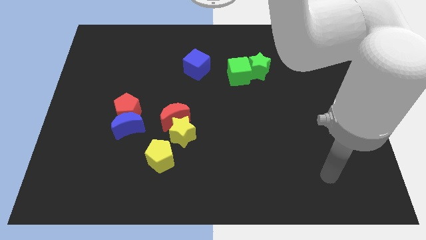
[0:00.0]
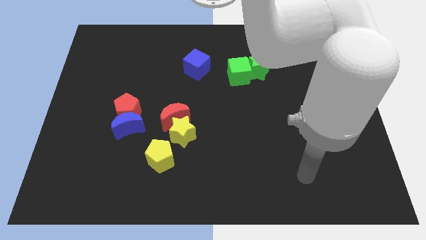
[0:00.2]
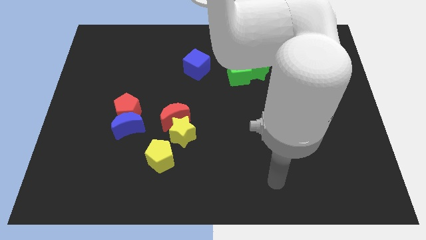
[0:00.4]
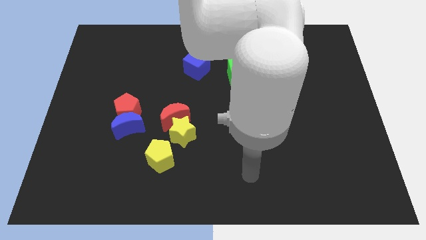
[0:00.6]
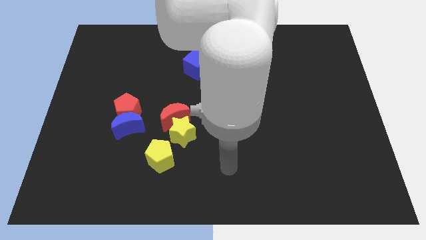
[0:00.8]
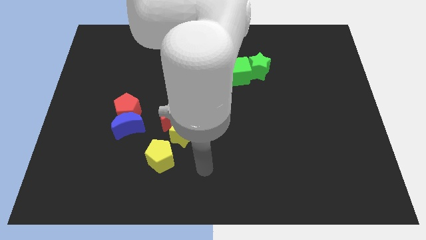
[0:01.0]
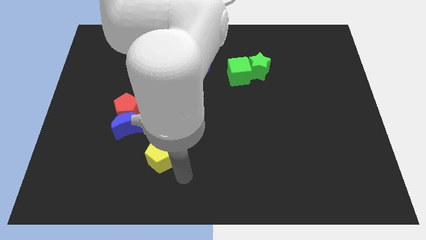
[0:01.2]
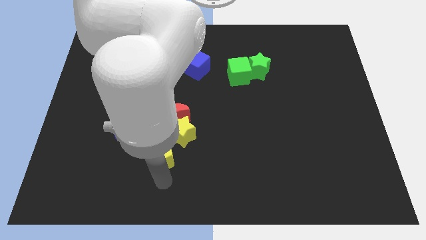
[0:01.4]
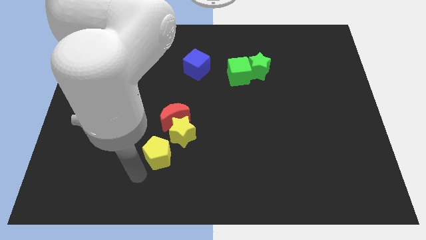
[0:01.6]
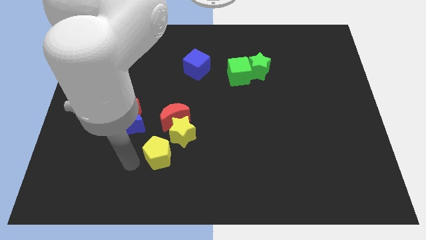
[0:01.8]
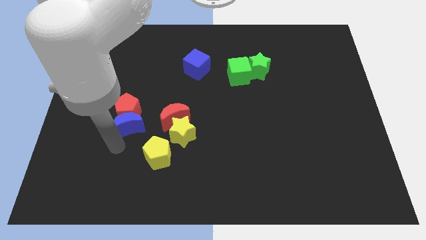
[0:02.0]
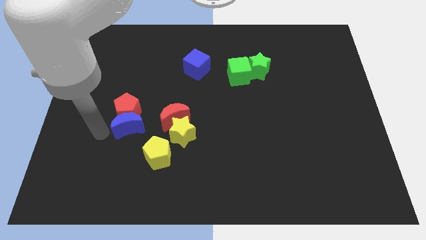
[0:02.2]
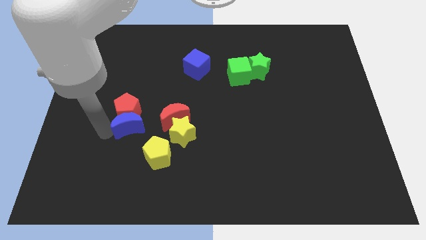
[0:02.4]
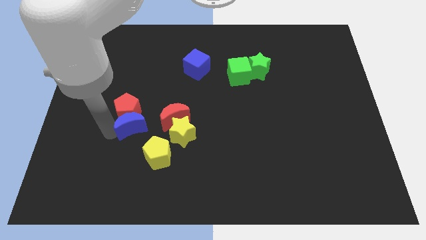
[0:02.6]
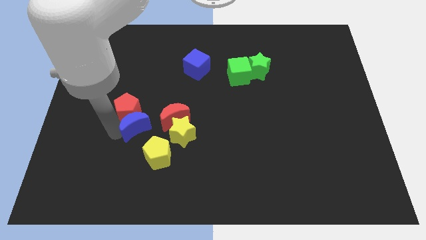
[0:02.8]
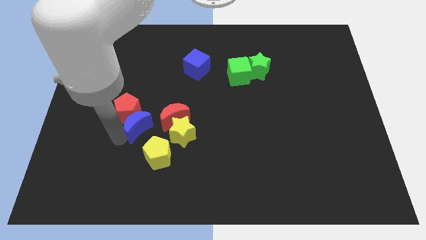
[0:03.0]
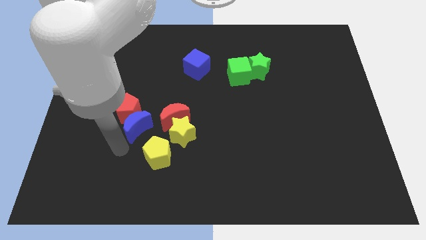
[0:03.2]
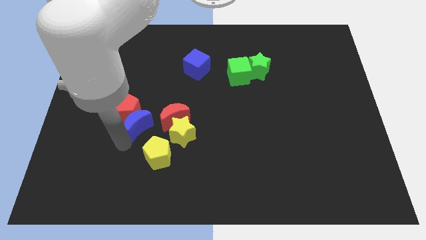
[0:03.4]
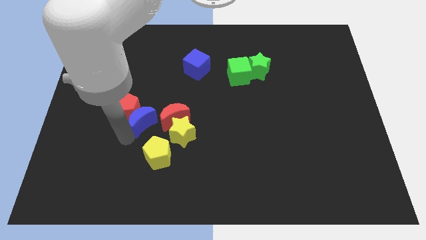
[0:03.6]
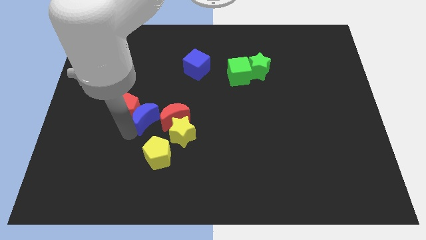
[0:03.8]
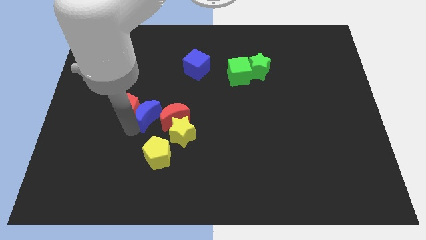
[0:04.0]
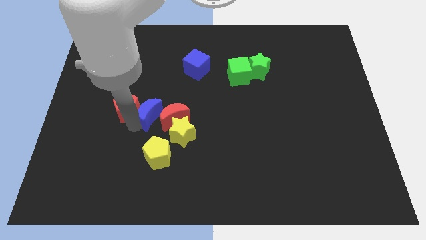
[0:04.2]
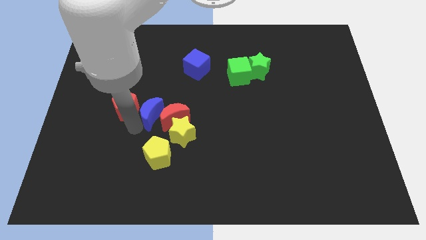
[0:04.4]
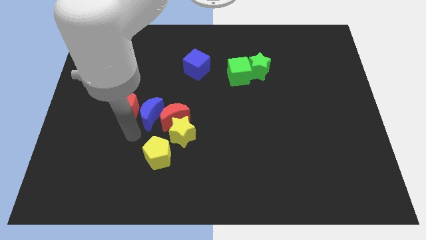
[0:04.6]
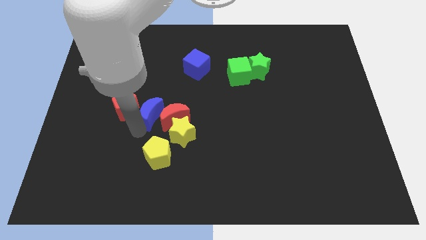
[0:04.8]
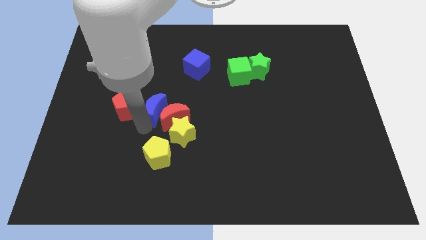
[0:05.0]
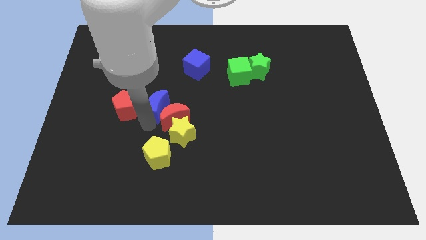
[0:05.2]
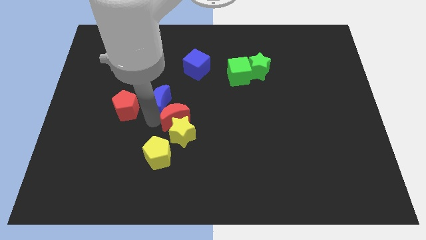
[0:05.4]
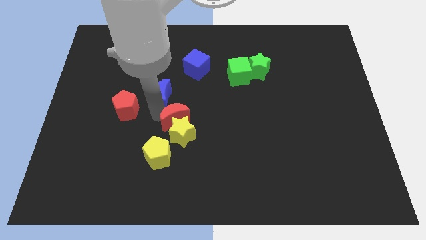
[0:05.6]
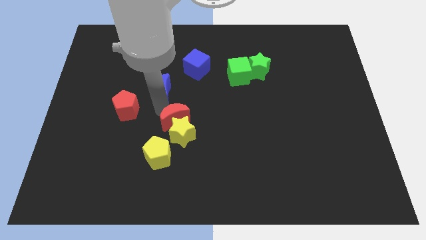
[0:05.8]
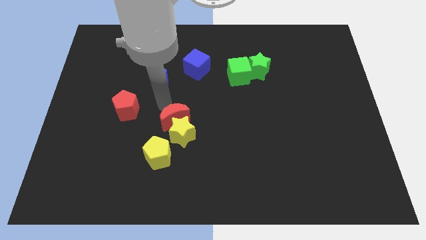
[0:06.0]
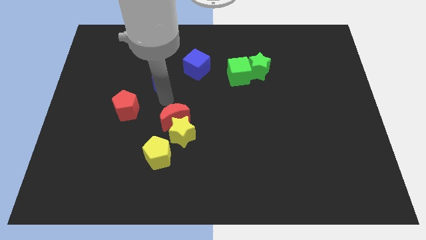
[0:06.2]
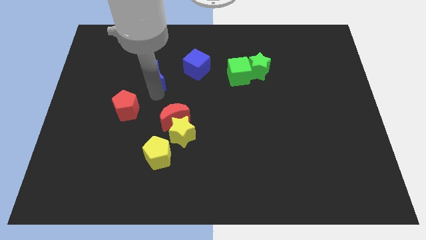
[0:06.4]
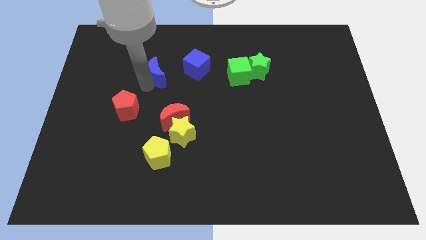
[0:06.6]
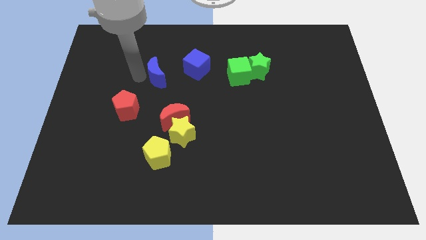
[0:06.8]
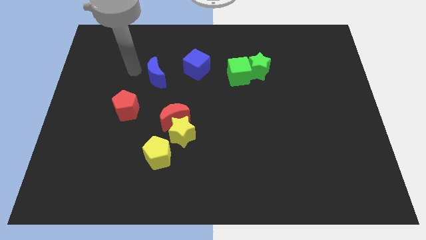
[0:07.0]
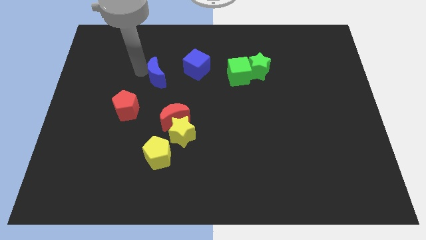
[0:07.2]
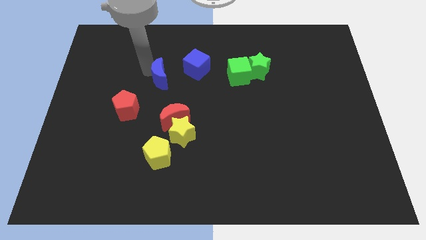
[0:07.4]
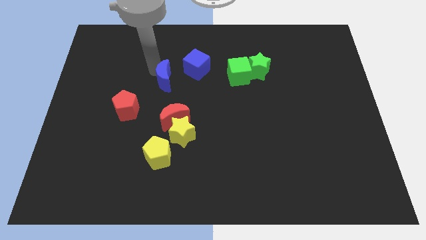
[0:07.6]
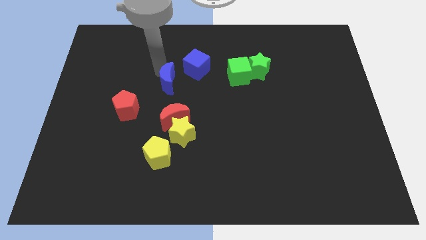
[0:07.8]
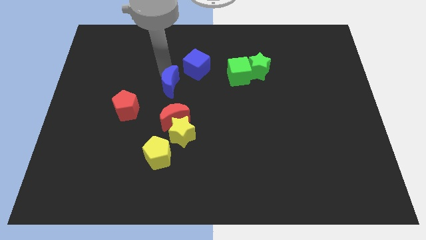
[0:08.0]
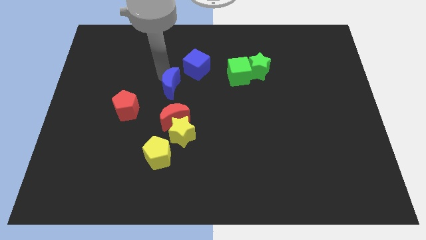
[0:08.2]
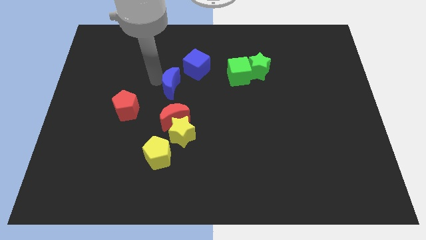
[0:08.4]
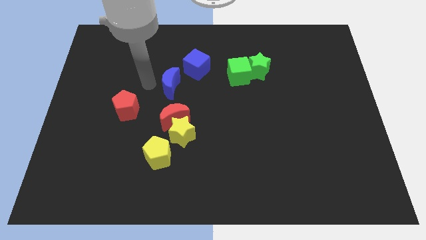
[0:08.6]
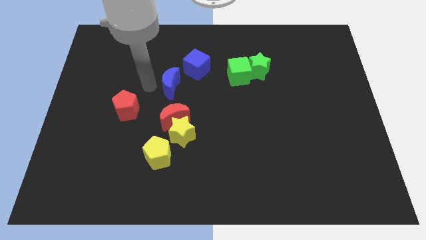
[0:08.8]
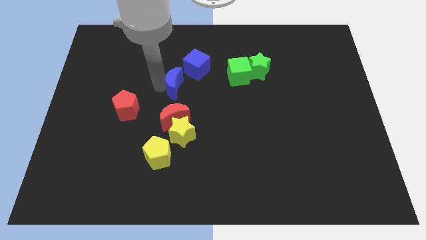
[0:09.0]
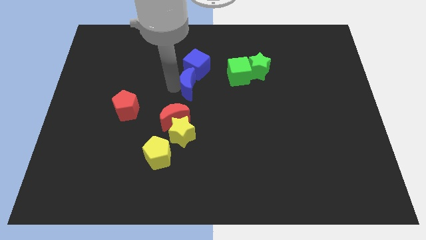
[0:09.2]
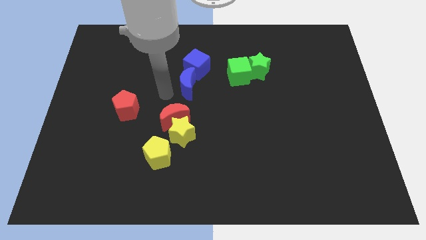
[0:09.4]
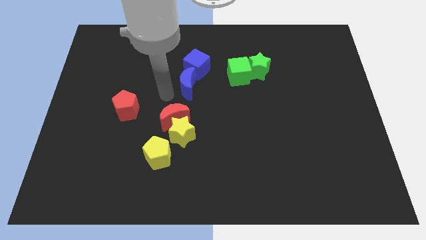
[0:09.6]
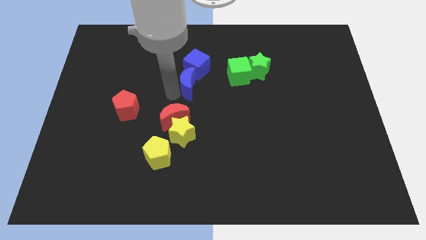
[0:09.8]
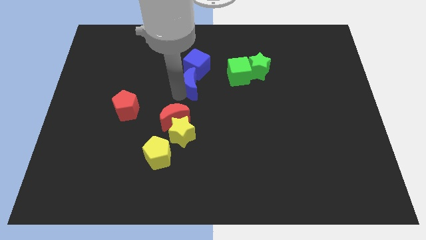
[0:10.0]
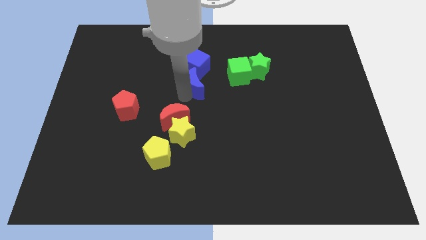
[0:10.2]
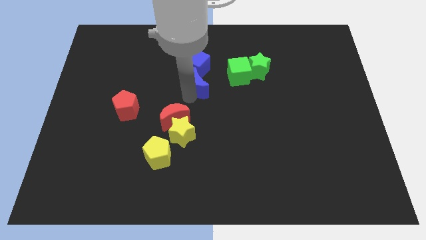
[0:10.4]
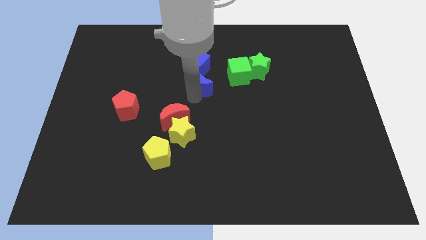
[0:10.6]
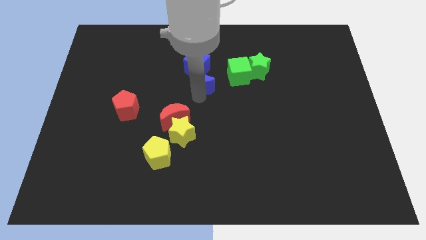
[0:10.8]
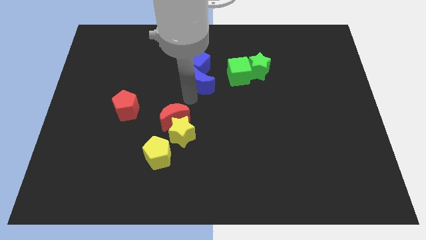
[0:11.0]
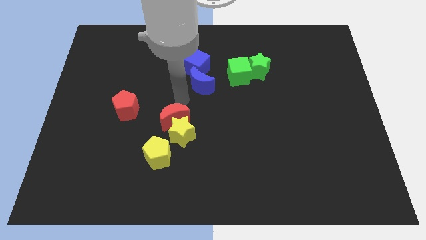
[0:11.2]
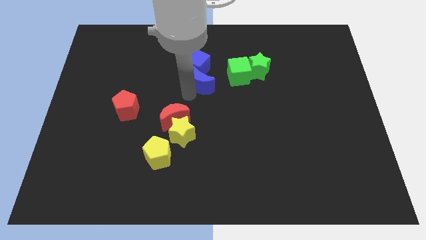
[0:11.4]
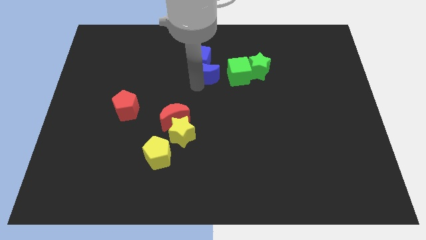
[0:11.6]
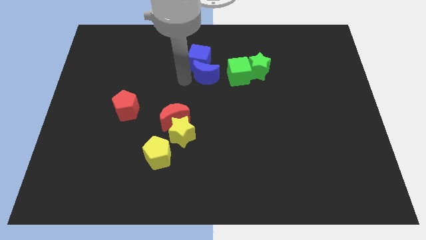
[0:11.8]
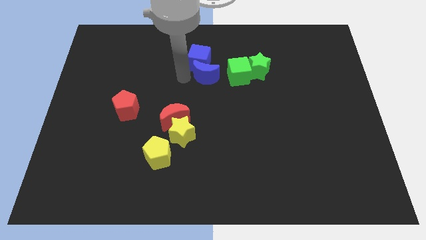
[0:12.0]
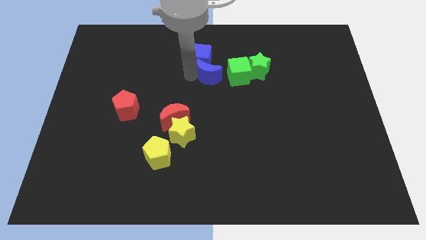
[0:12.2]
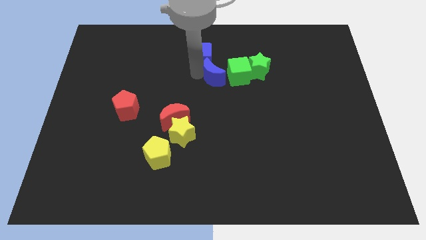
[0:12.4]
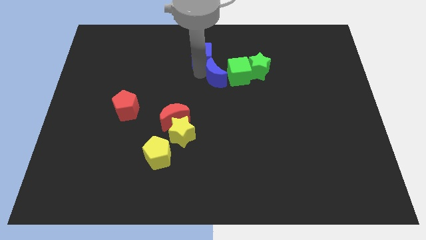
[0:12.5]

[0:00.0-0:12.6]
push the blue moon close to the green cube
